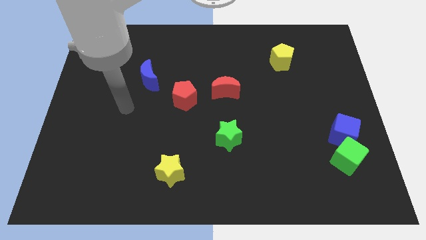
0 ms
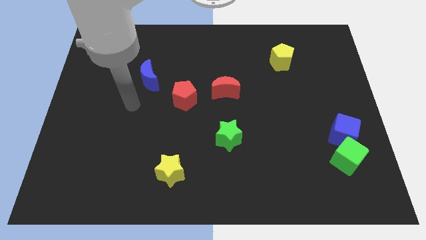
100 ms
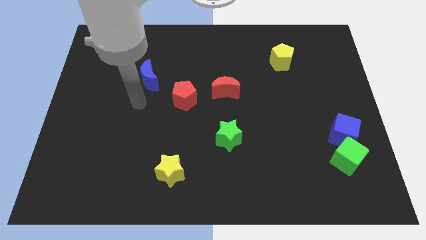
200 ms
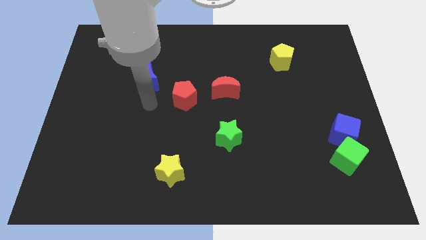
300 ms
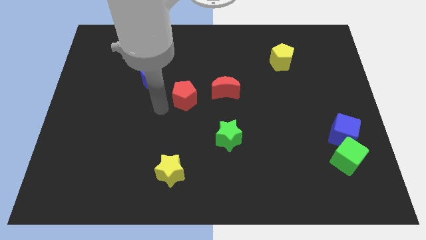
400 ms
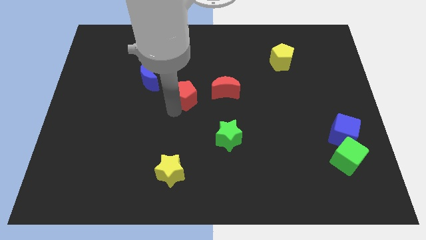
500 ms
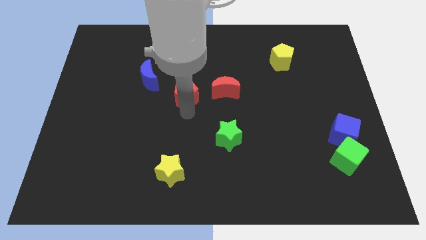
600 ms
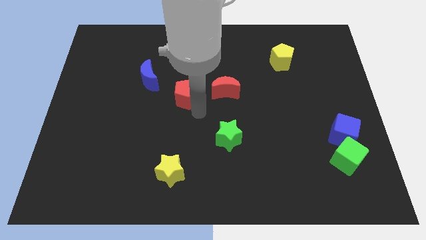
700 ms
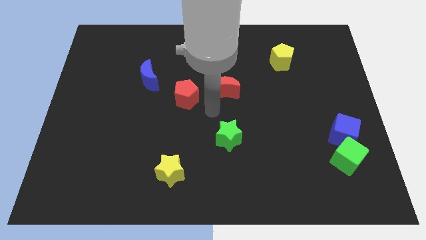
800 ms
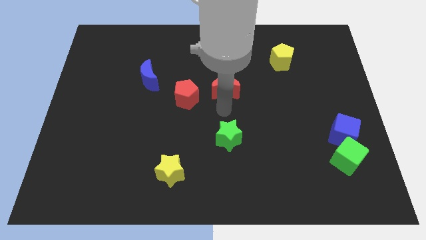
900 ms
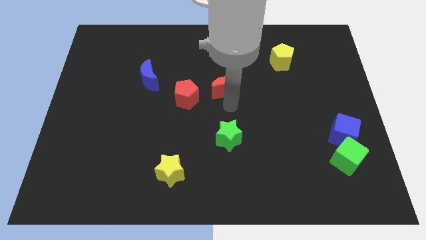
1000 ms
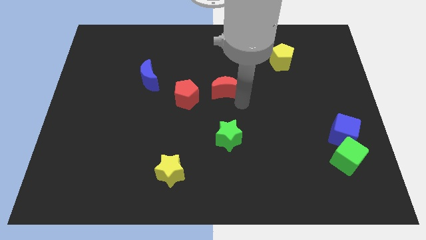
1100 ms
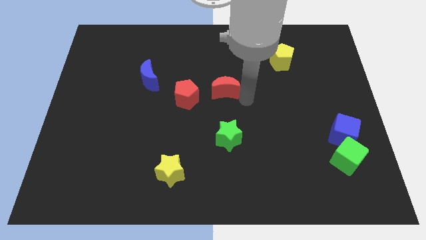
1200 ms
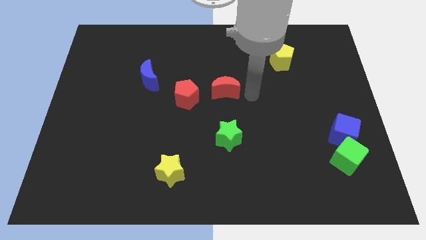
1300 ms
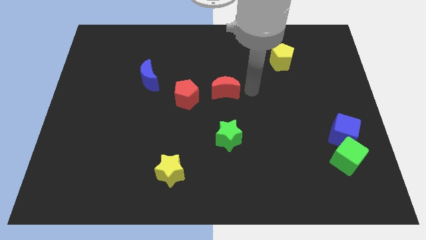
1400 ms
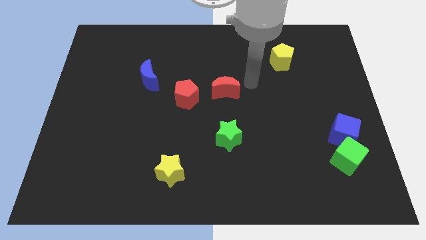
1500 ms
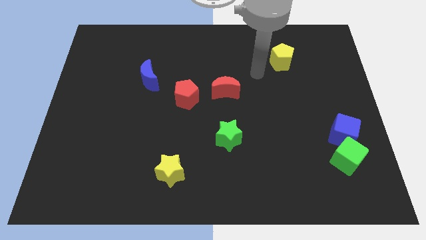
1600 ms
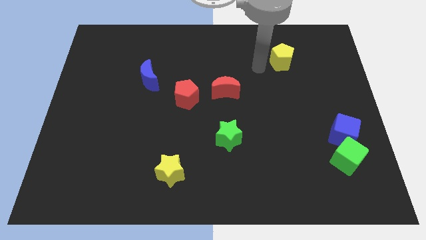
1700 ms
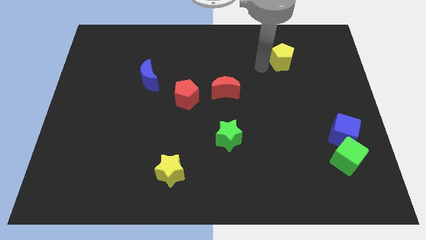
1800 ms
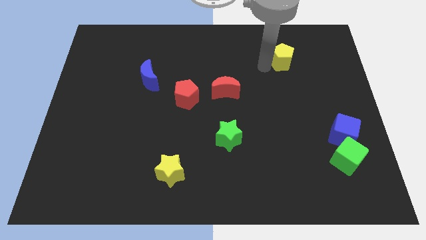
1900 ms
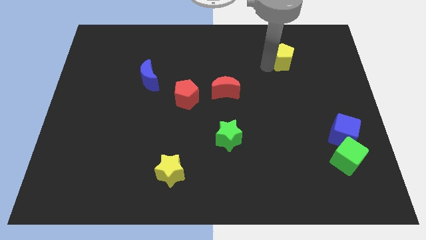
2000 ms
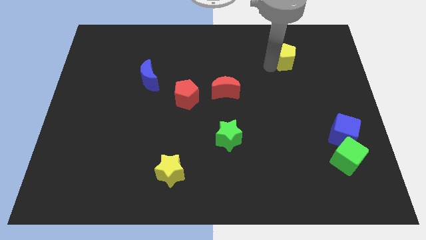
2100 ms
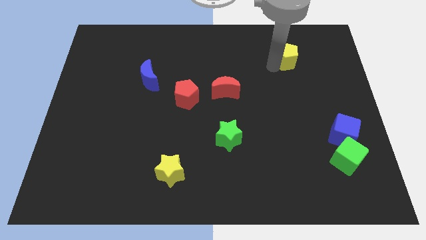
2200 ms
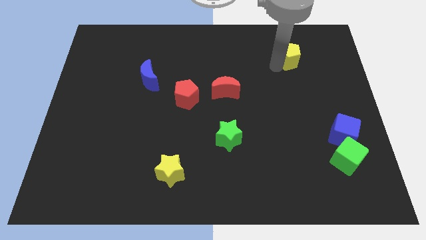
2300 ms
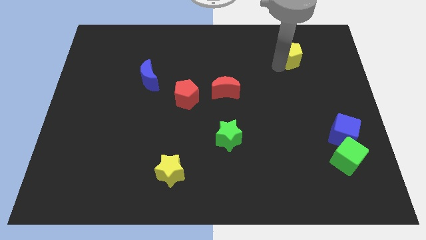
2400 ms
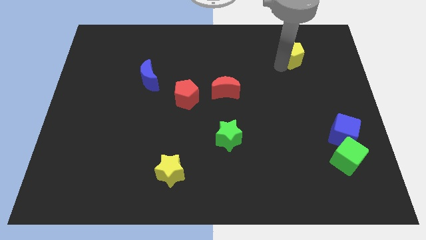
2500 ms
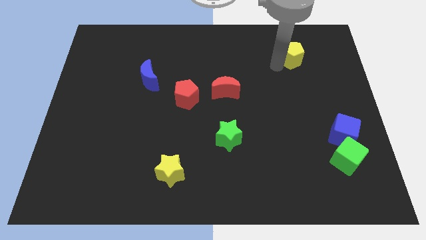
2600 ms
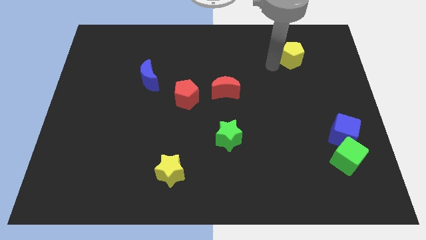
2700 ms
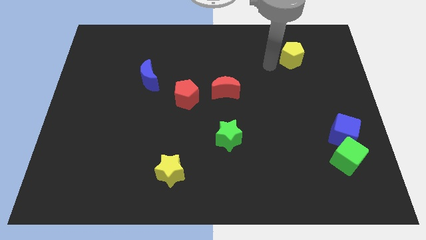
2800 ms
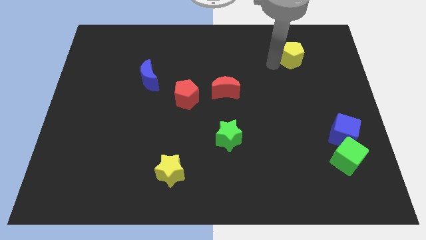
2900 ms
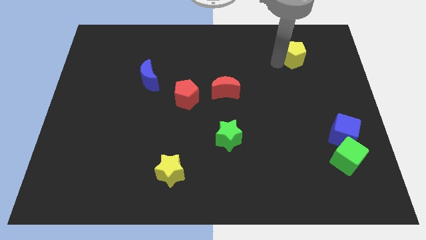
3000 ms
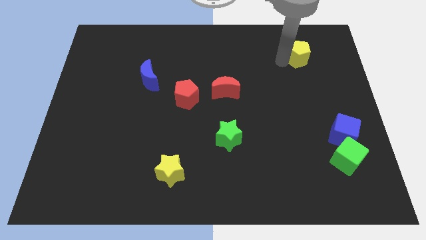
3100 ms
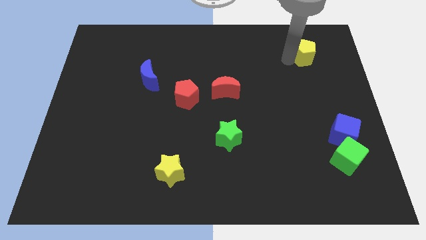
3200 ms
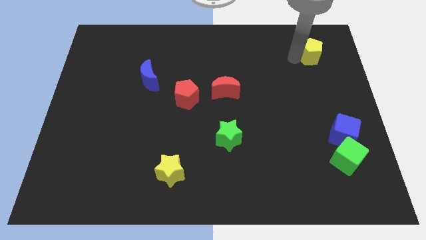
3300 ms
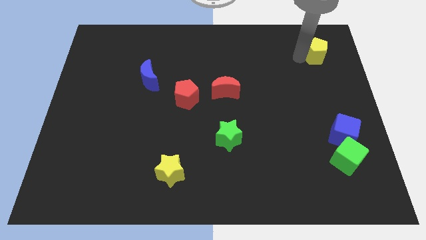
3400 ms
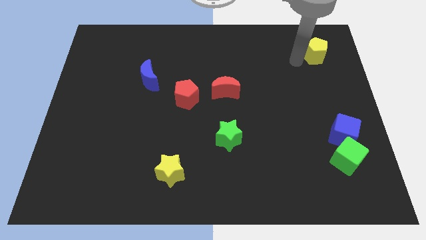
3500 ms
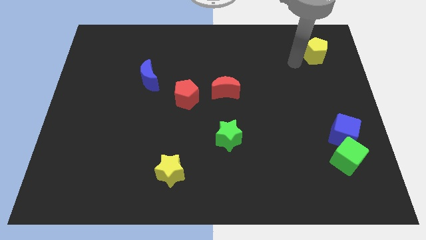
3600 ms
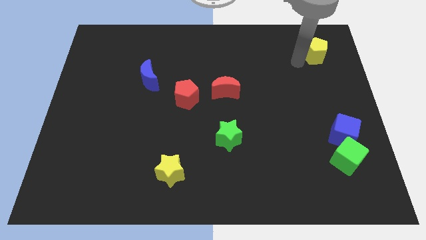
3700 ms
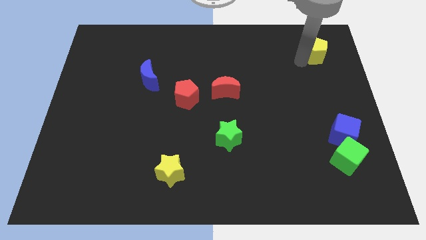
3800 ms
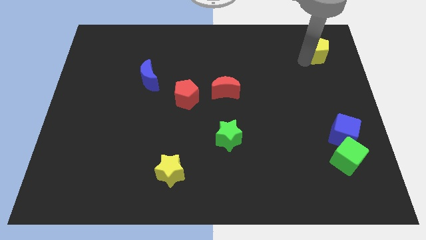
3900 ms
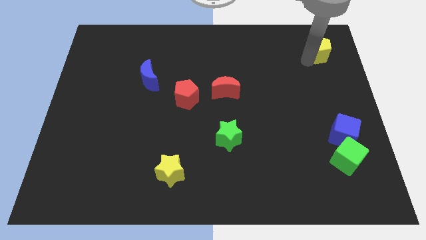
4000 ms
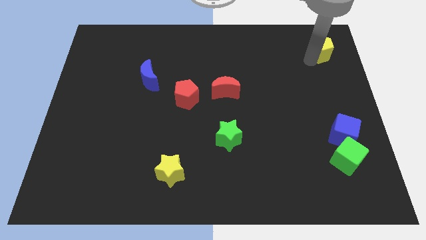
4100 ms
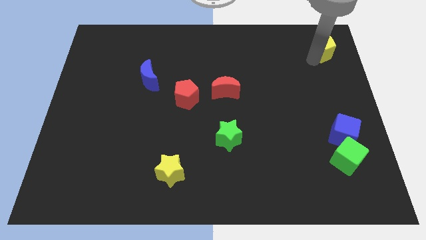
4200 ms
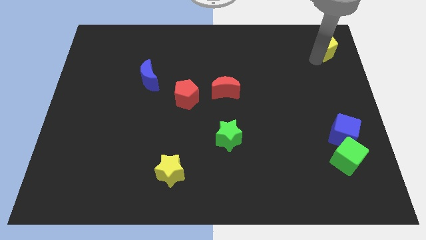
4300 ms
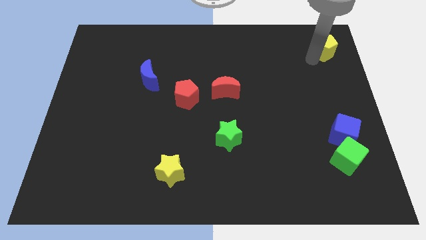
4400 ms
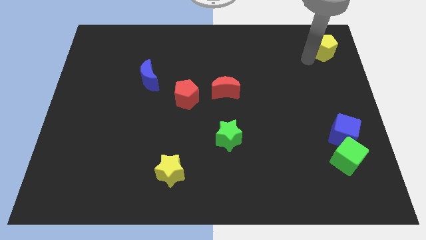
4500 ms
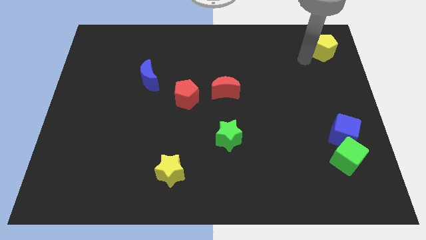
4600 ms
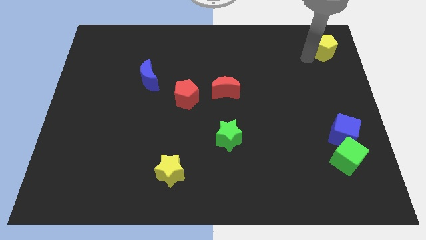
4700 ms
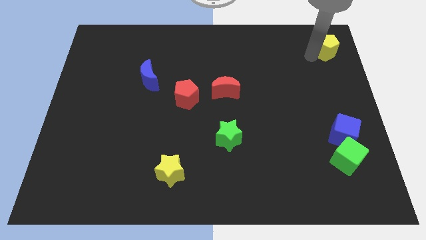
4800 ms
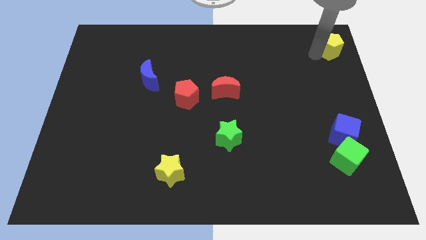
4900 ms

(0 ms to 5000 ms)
move the yellow pentagon to the upper right corner
